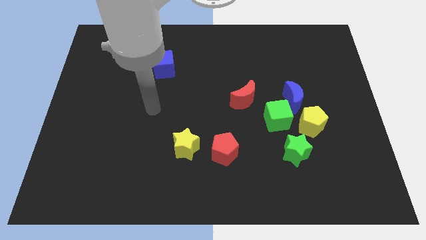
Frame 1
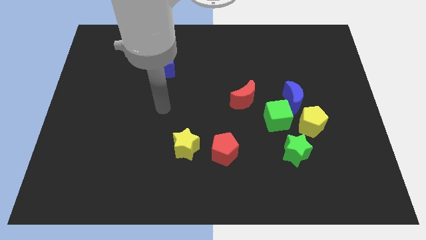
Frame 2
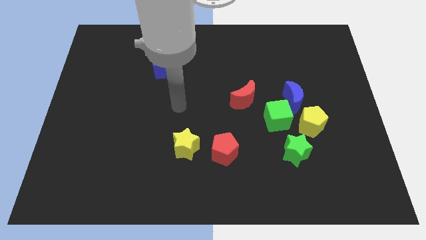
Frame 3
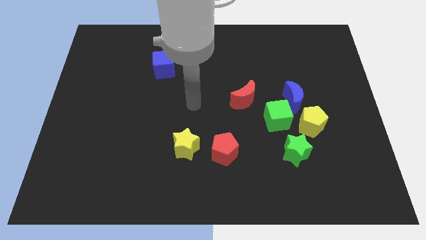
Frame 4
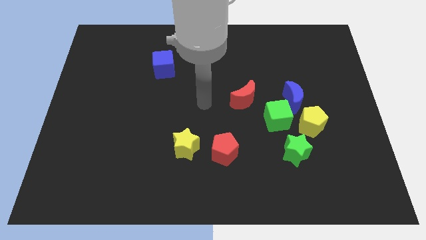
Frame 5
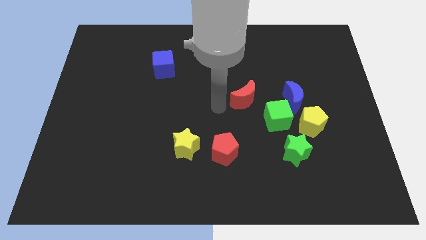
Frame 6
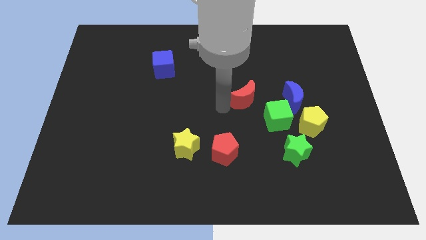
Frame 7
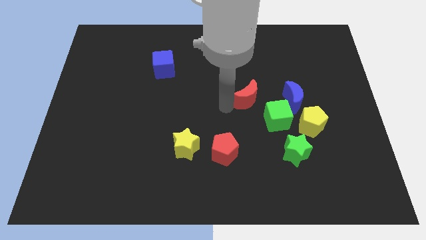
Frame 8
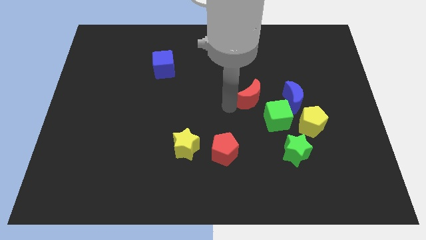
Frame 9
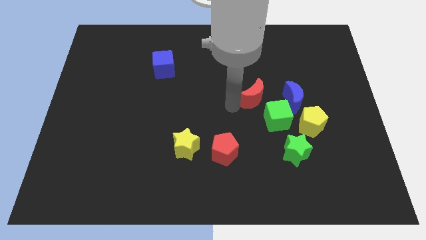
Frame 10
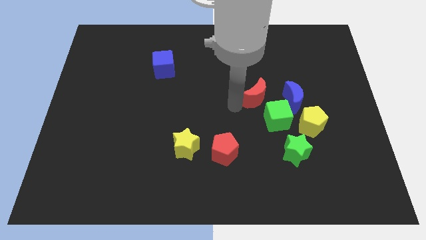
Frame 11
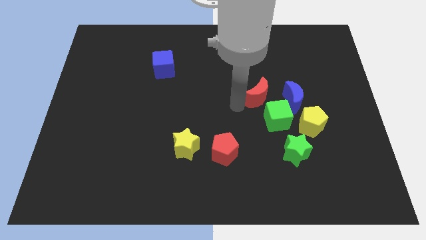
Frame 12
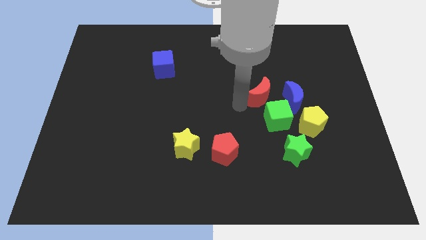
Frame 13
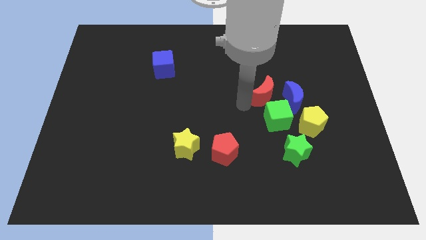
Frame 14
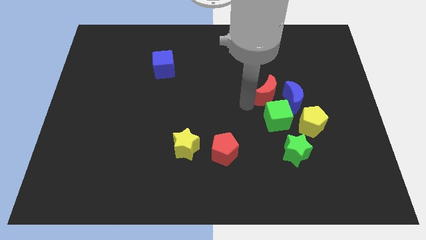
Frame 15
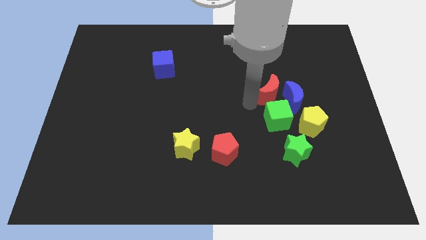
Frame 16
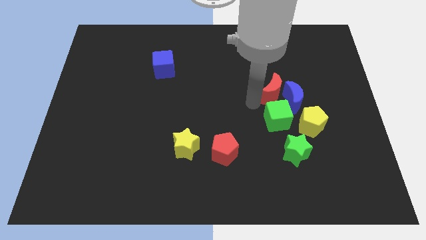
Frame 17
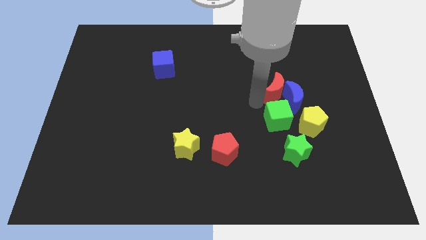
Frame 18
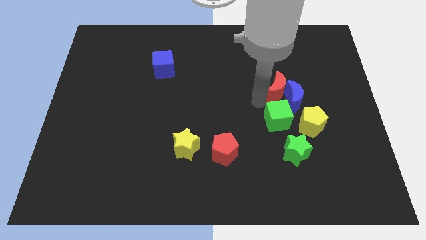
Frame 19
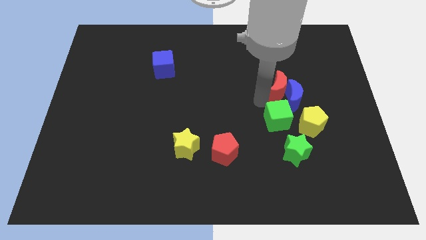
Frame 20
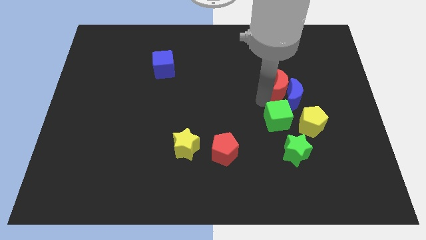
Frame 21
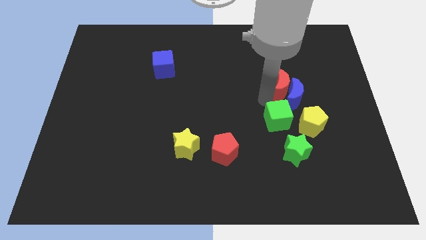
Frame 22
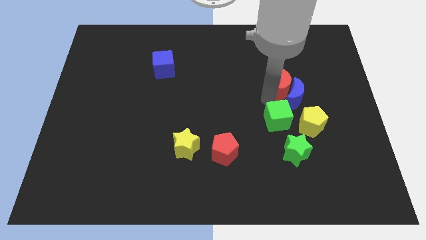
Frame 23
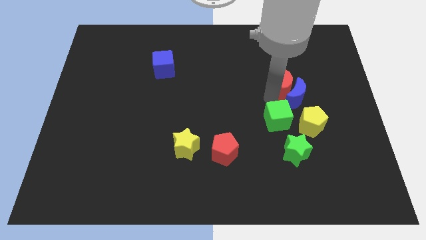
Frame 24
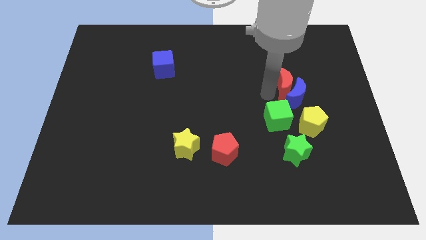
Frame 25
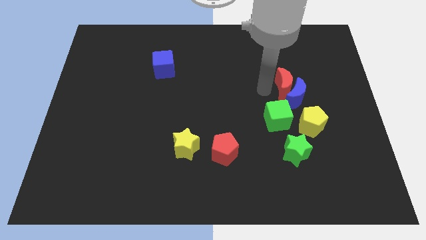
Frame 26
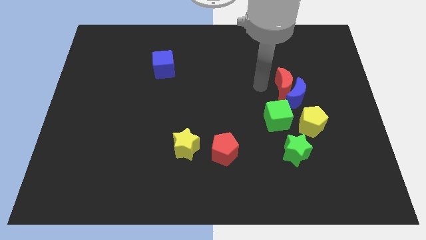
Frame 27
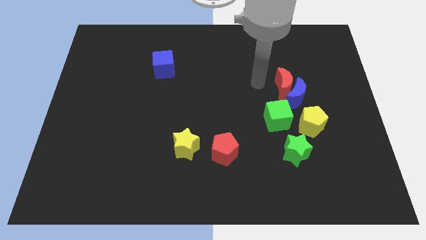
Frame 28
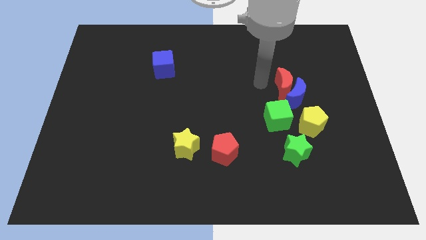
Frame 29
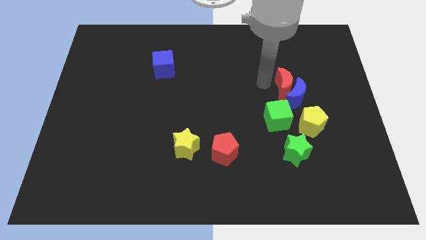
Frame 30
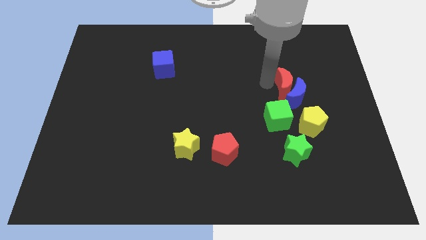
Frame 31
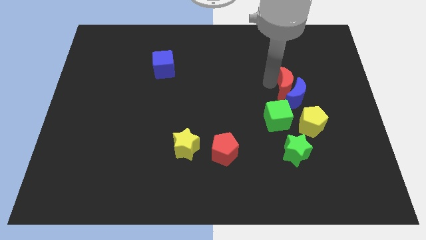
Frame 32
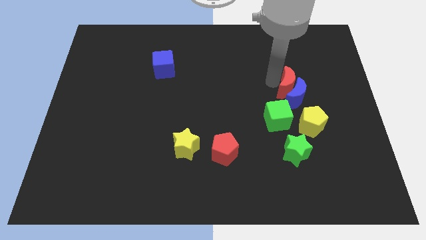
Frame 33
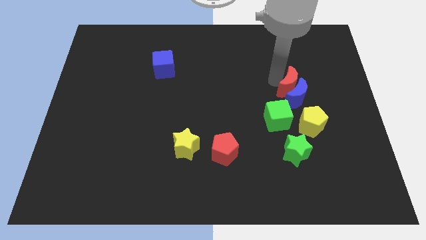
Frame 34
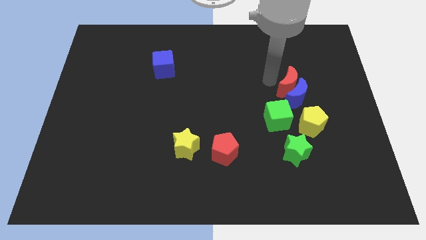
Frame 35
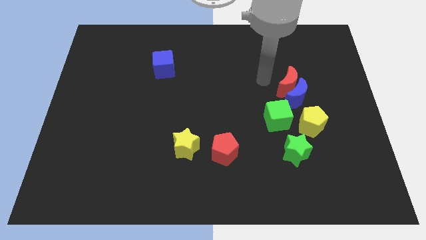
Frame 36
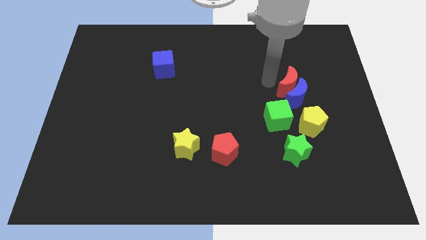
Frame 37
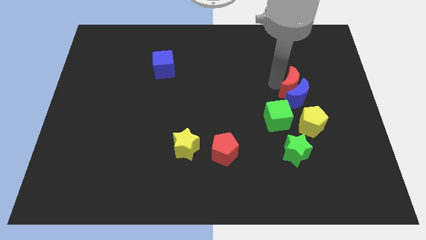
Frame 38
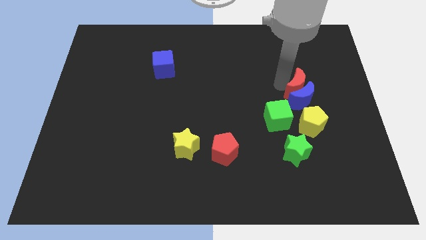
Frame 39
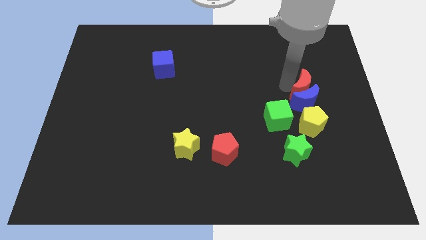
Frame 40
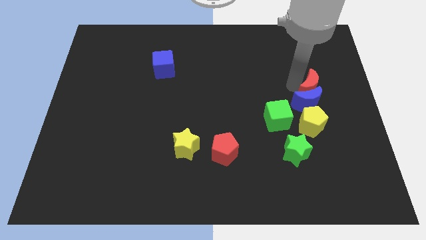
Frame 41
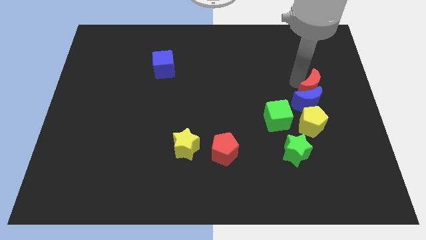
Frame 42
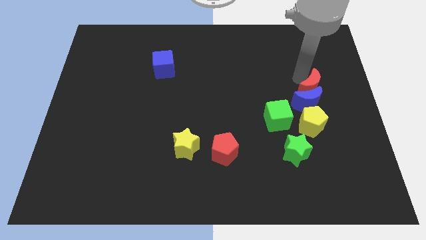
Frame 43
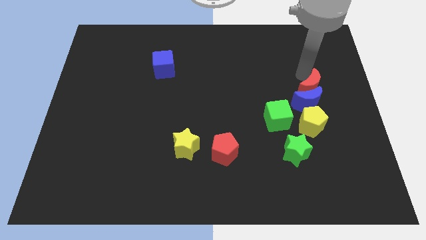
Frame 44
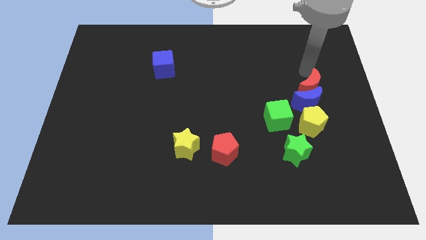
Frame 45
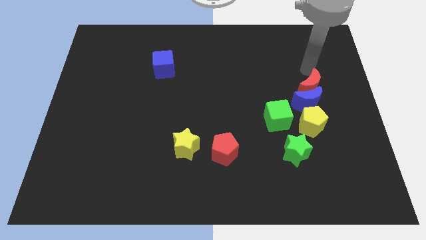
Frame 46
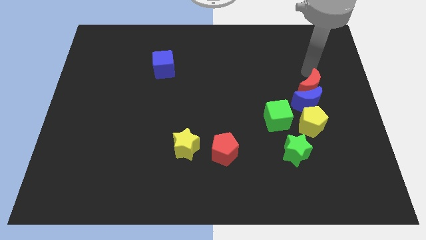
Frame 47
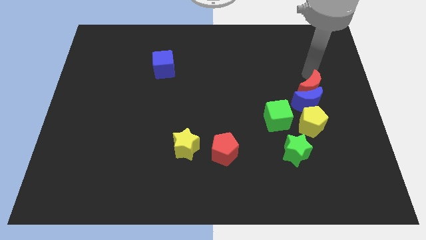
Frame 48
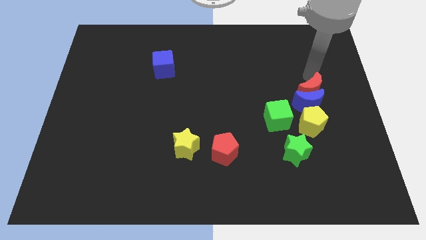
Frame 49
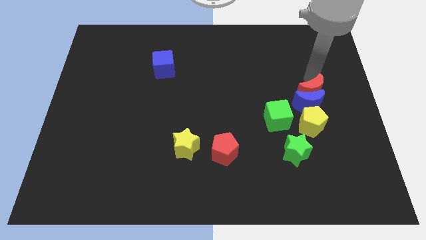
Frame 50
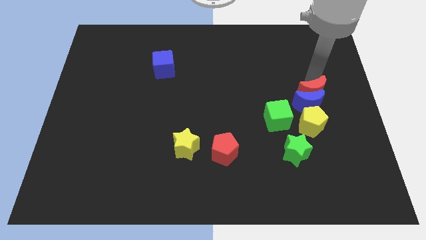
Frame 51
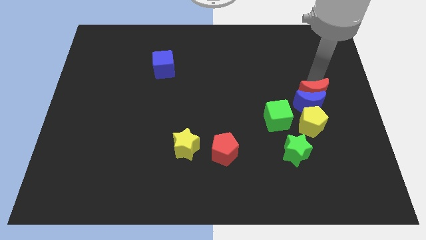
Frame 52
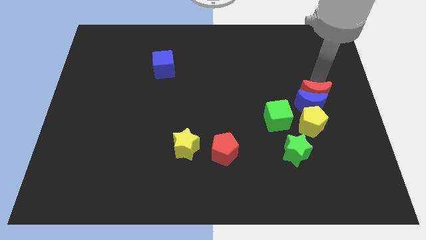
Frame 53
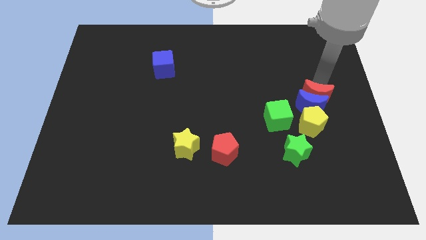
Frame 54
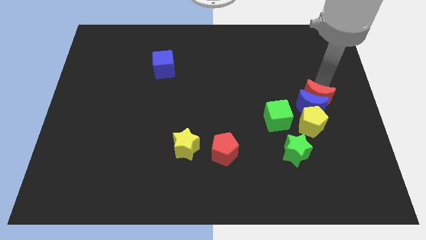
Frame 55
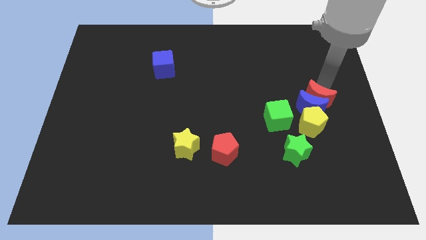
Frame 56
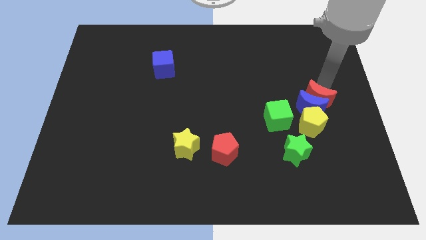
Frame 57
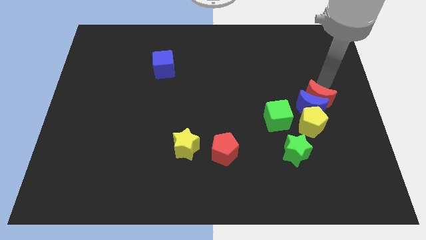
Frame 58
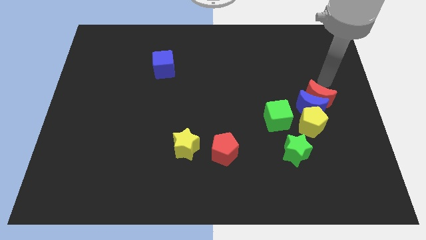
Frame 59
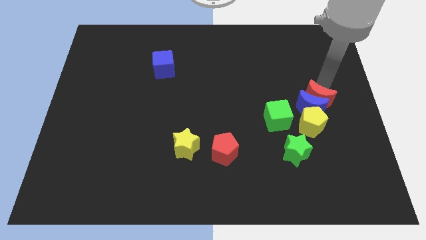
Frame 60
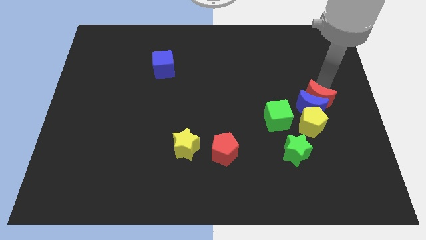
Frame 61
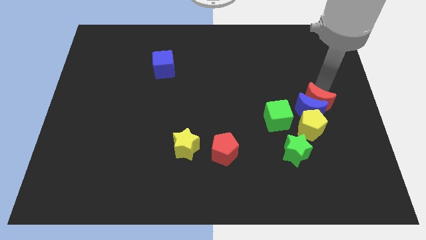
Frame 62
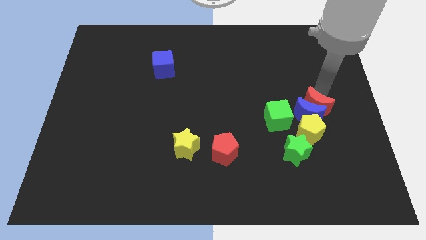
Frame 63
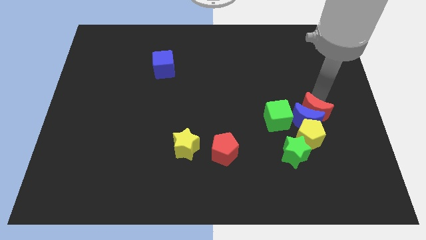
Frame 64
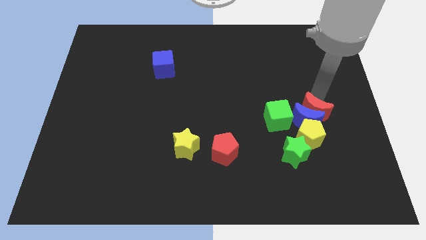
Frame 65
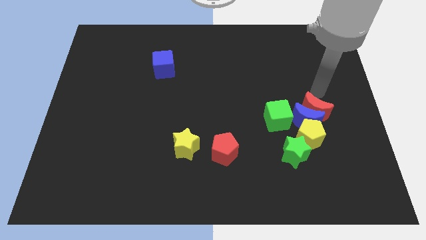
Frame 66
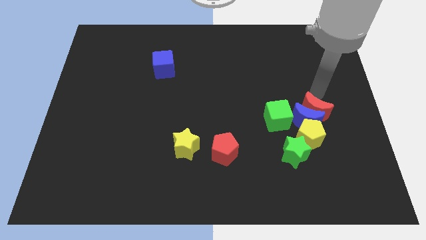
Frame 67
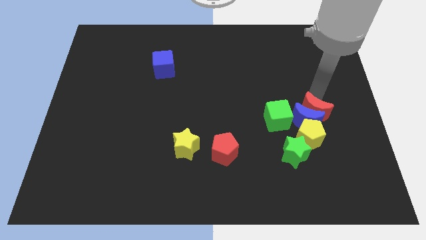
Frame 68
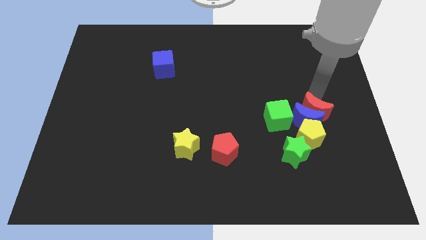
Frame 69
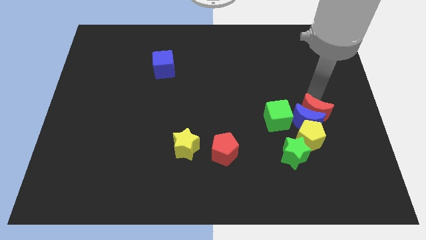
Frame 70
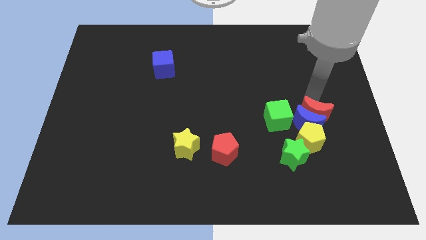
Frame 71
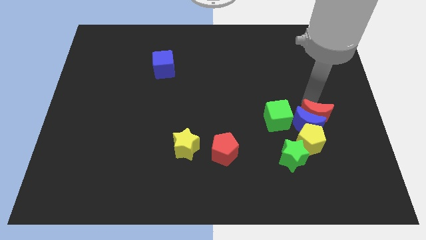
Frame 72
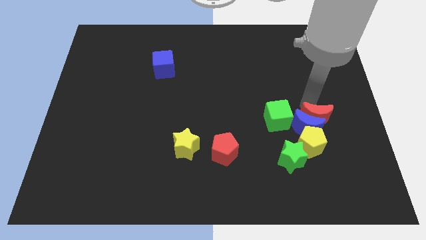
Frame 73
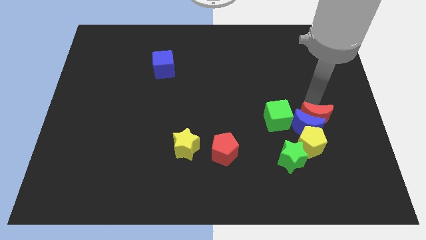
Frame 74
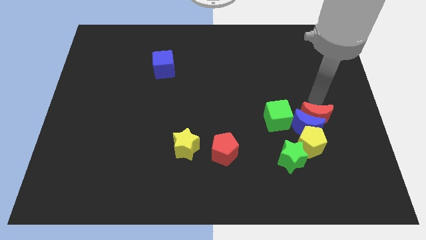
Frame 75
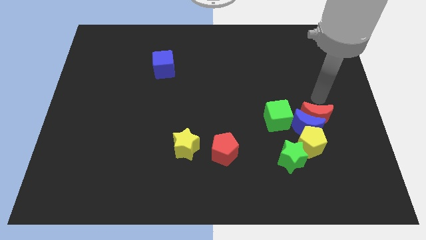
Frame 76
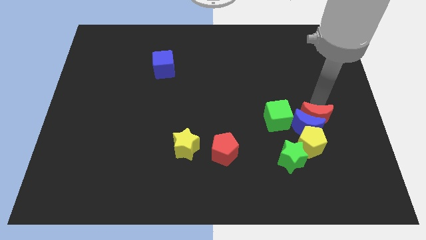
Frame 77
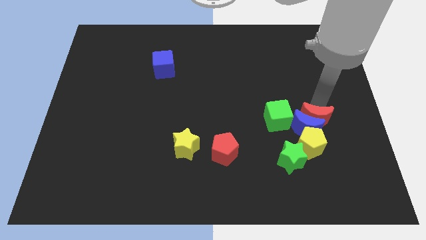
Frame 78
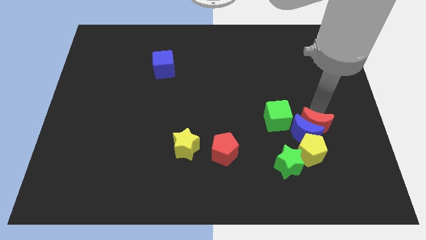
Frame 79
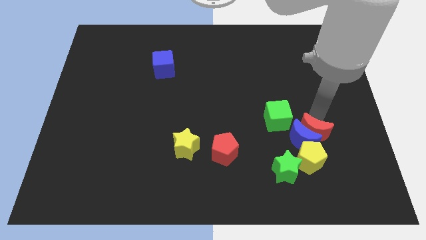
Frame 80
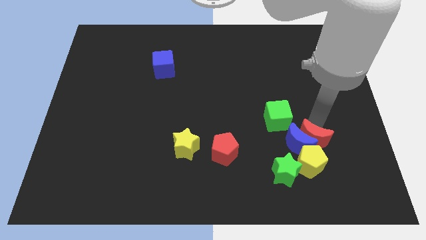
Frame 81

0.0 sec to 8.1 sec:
push the red moon to the yellow pentagon
